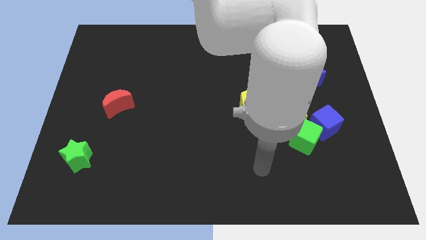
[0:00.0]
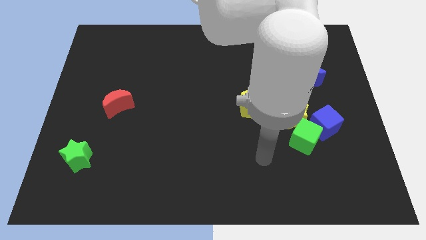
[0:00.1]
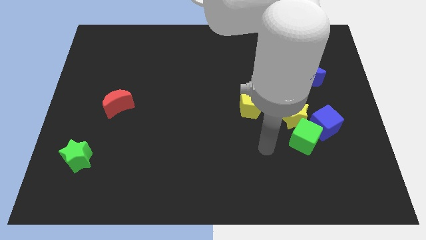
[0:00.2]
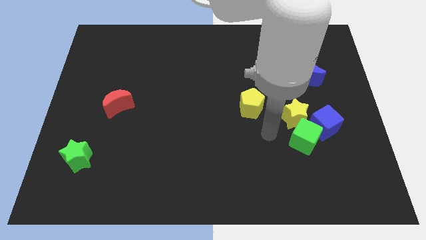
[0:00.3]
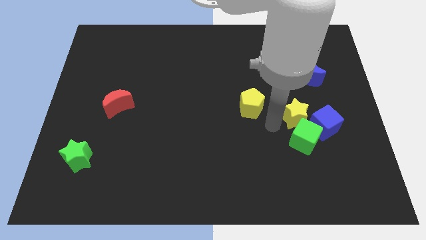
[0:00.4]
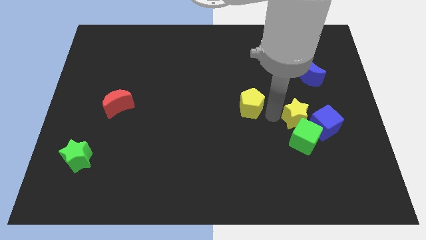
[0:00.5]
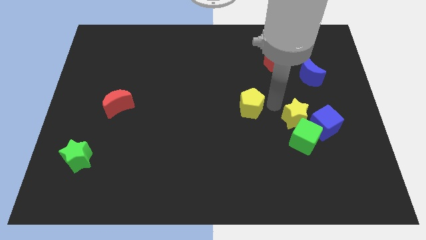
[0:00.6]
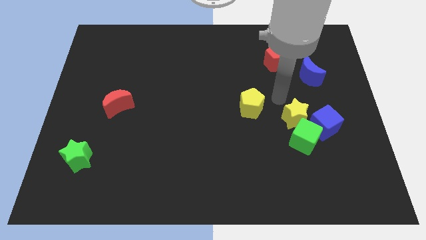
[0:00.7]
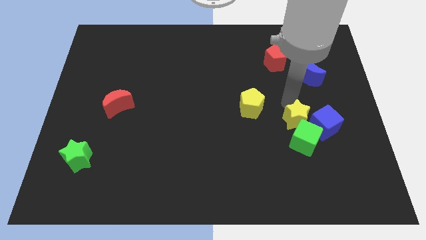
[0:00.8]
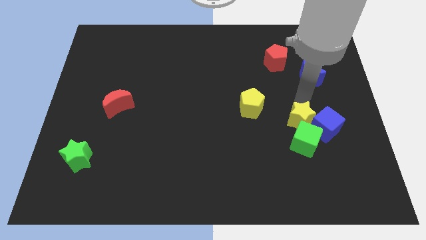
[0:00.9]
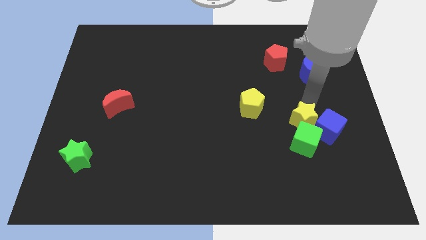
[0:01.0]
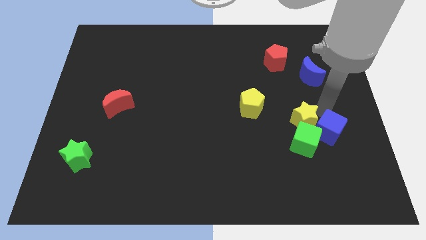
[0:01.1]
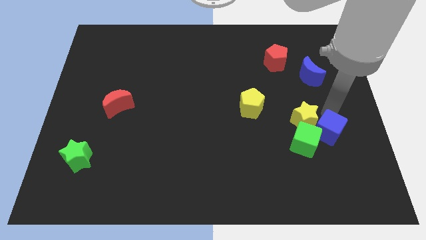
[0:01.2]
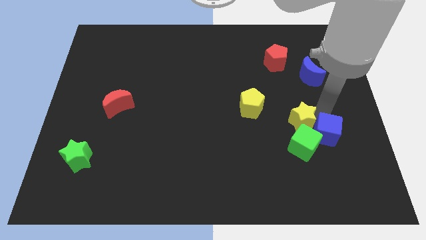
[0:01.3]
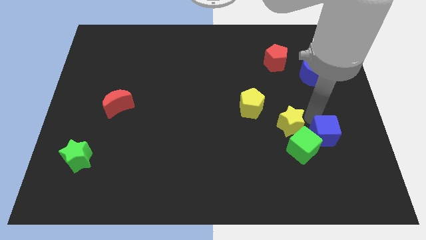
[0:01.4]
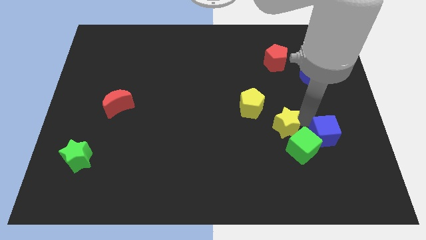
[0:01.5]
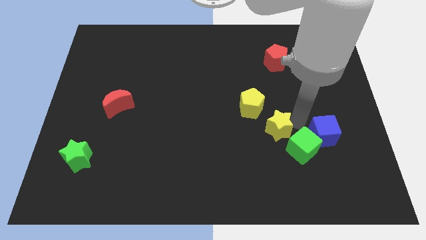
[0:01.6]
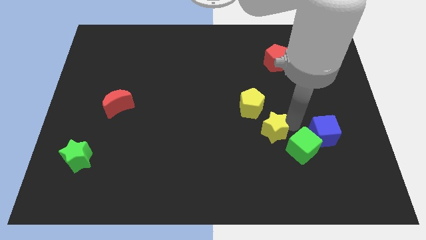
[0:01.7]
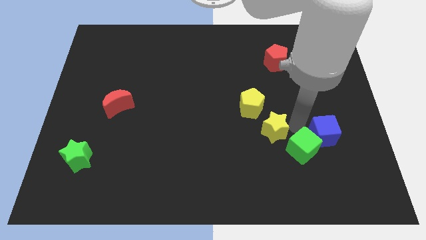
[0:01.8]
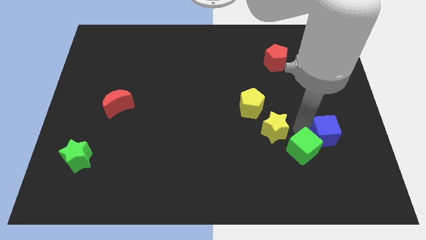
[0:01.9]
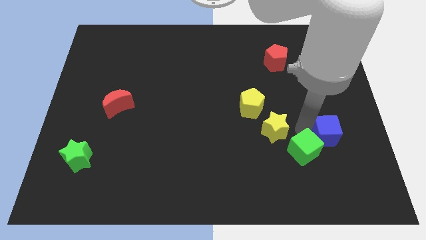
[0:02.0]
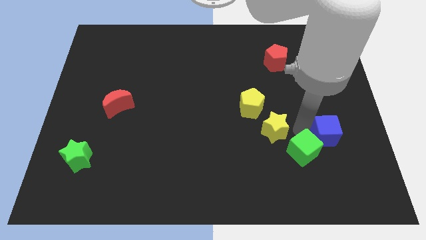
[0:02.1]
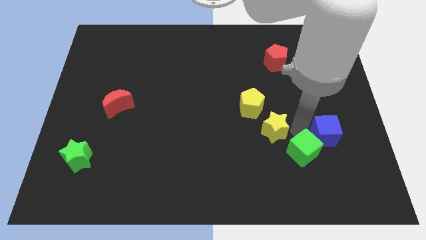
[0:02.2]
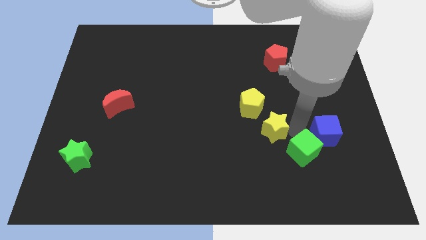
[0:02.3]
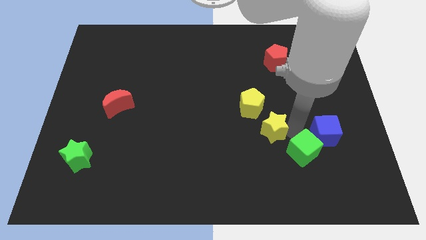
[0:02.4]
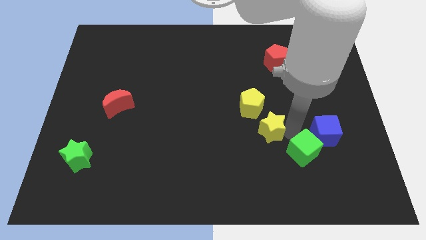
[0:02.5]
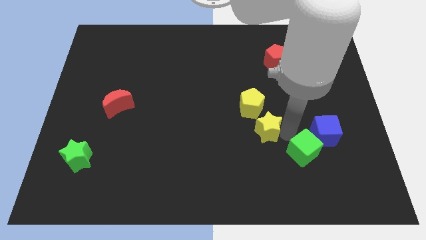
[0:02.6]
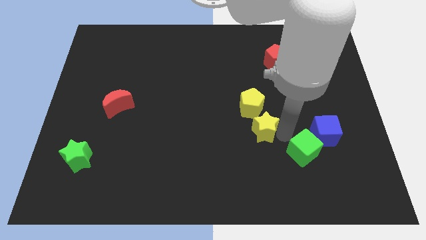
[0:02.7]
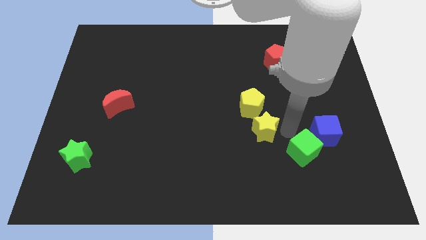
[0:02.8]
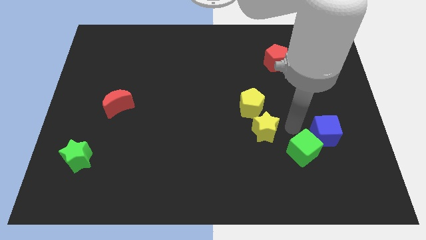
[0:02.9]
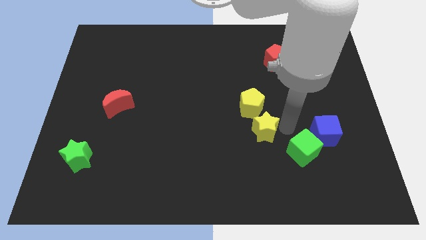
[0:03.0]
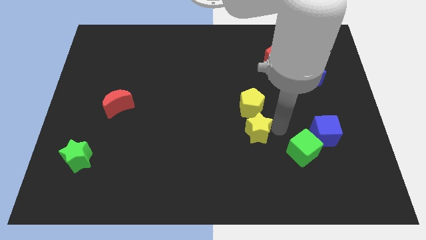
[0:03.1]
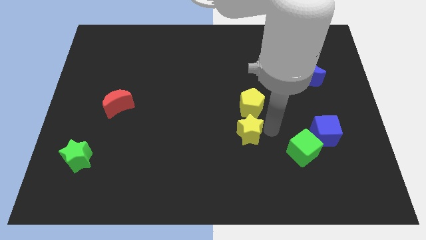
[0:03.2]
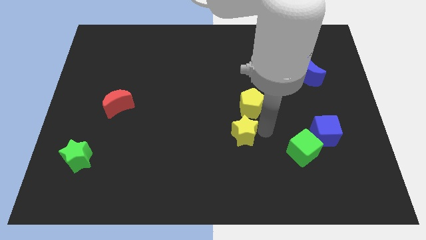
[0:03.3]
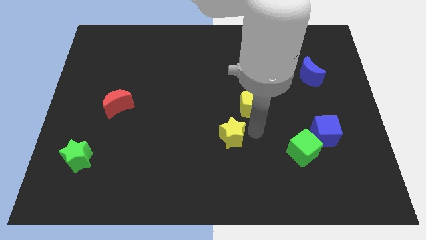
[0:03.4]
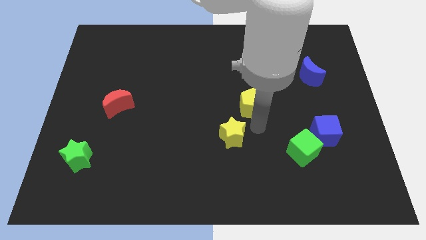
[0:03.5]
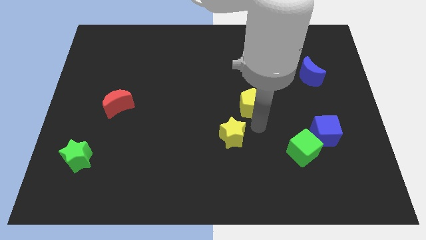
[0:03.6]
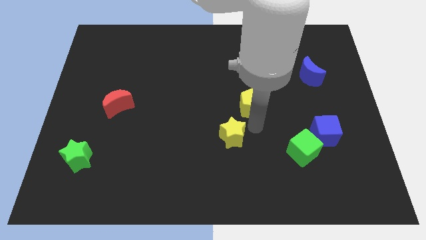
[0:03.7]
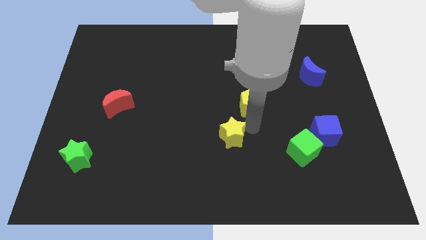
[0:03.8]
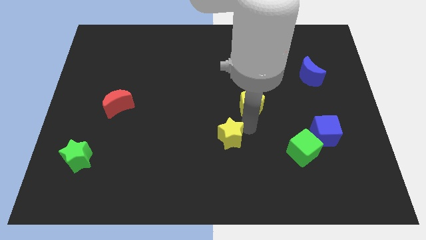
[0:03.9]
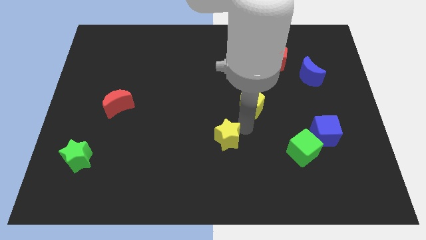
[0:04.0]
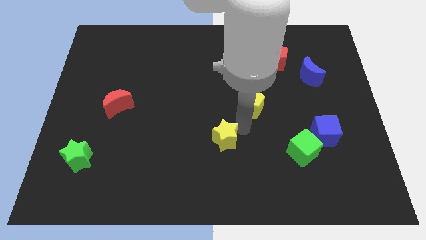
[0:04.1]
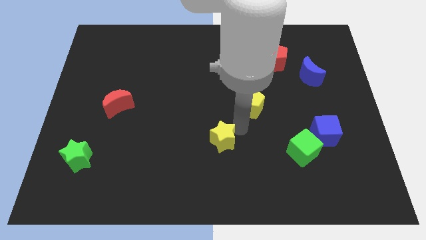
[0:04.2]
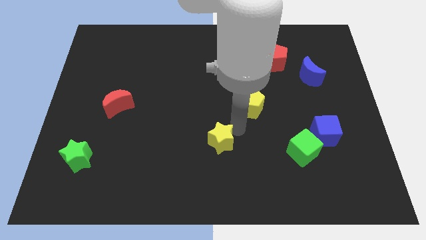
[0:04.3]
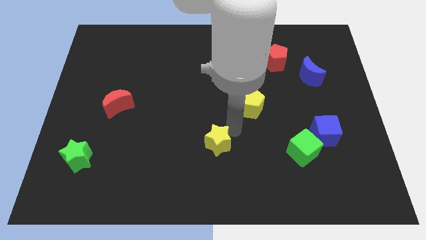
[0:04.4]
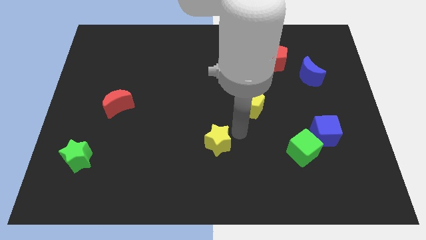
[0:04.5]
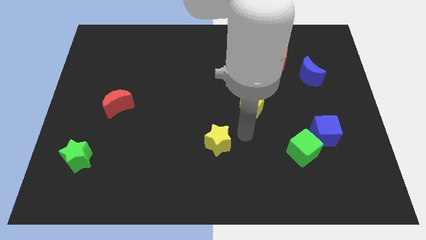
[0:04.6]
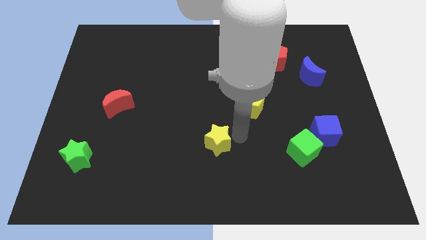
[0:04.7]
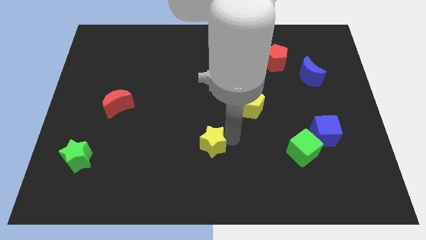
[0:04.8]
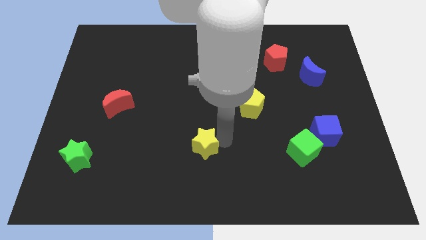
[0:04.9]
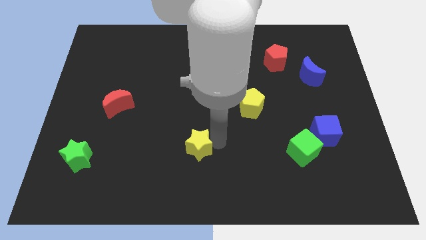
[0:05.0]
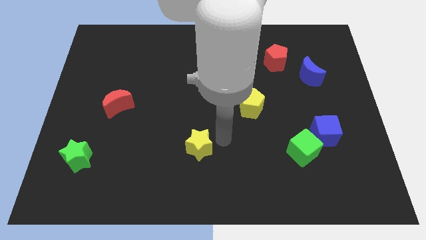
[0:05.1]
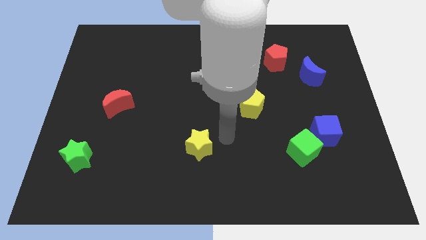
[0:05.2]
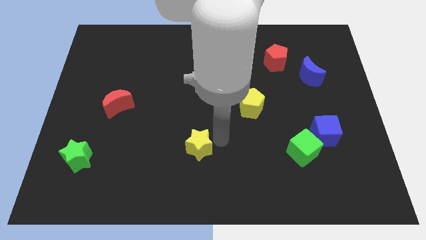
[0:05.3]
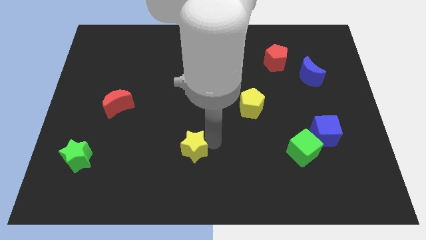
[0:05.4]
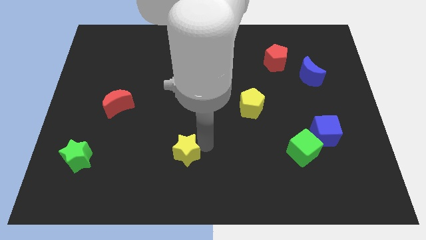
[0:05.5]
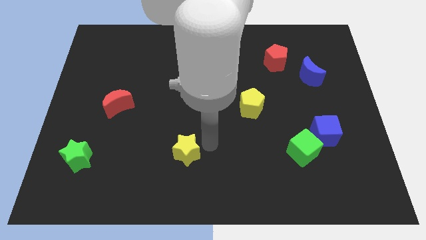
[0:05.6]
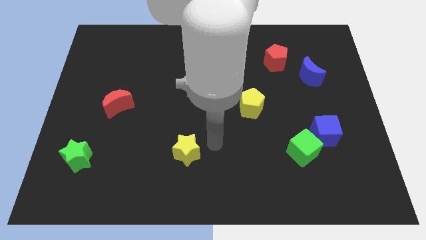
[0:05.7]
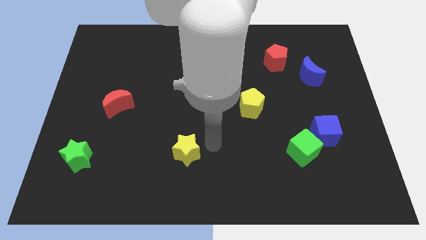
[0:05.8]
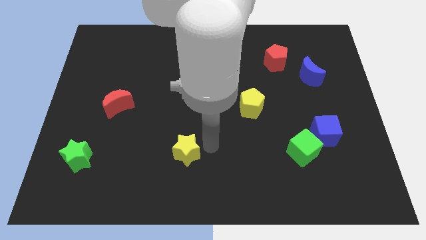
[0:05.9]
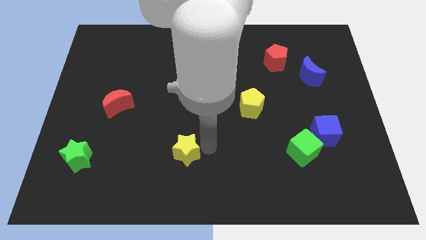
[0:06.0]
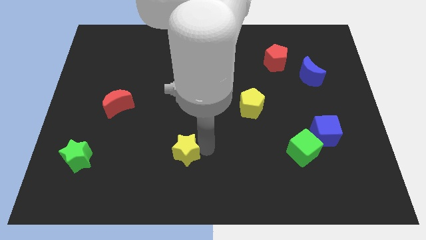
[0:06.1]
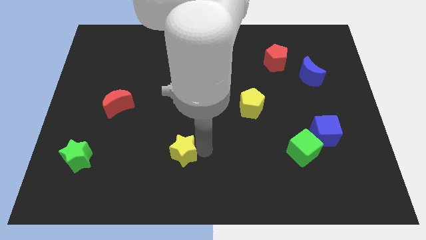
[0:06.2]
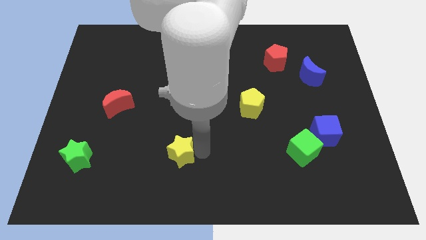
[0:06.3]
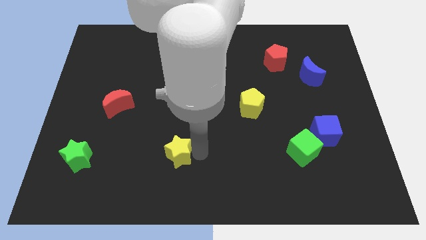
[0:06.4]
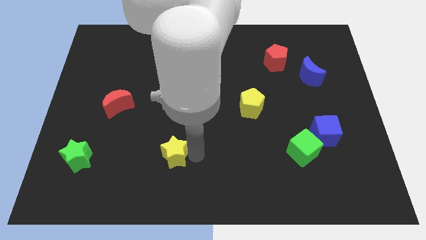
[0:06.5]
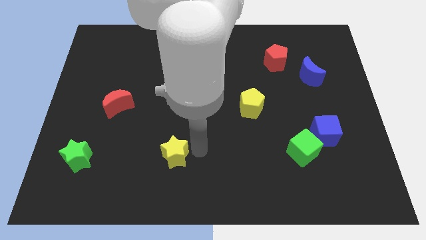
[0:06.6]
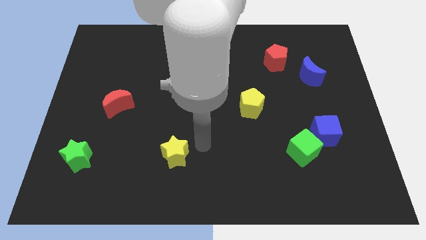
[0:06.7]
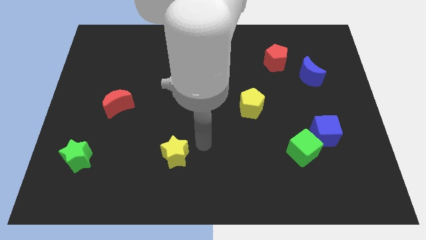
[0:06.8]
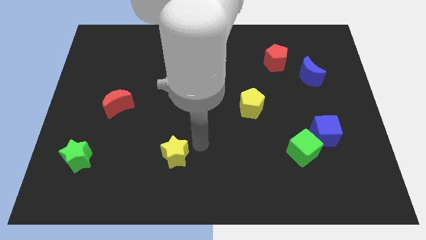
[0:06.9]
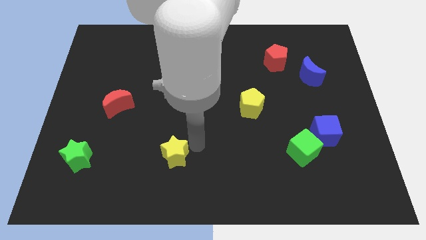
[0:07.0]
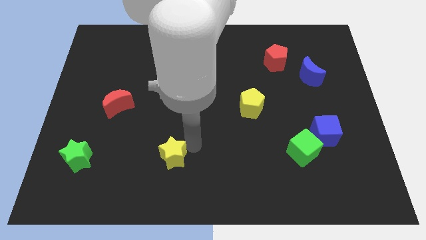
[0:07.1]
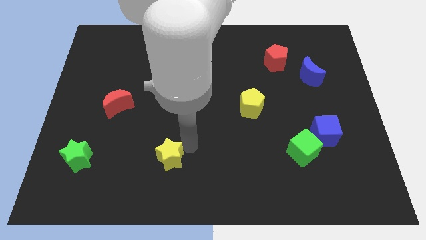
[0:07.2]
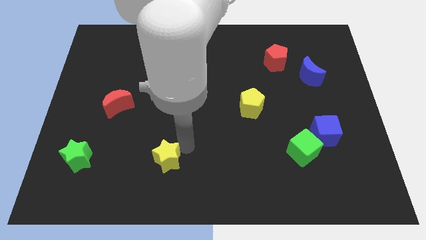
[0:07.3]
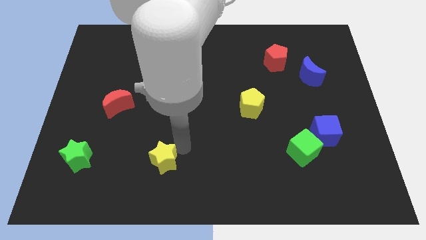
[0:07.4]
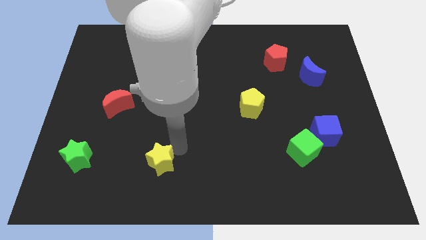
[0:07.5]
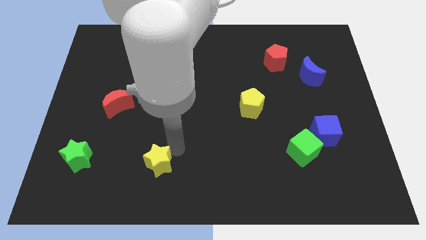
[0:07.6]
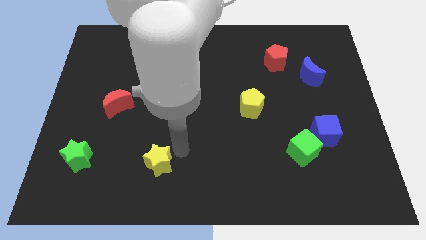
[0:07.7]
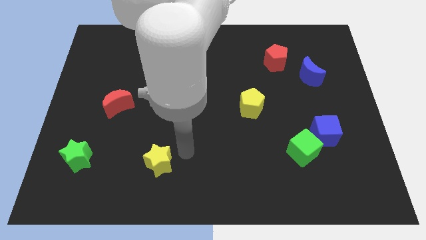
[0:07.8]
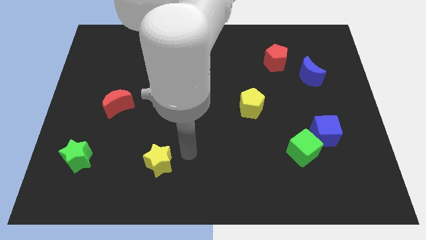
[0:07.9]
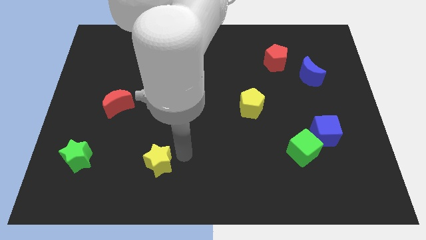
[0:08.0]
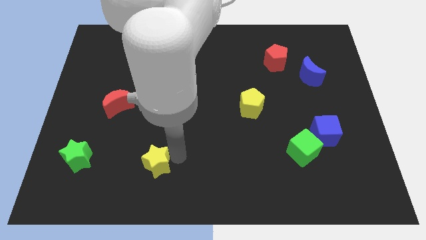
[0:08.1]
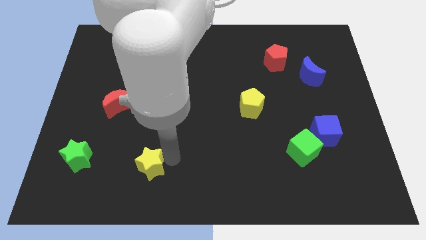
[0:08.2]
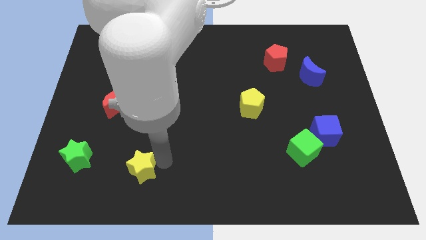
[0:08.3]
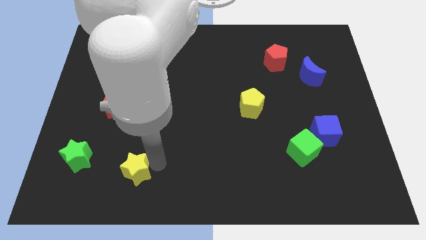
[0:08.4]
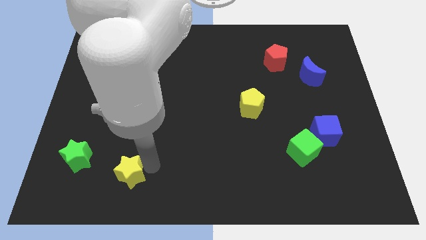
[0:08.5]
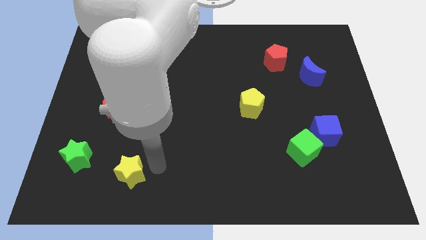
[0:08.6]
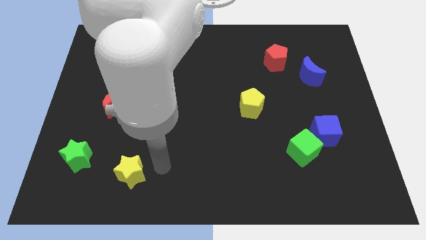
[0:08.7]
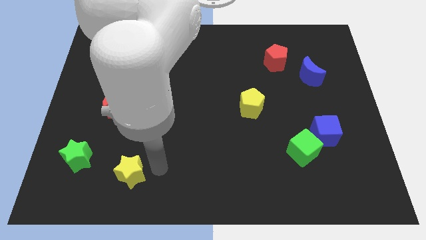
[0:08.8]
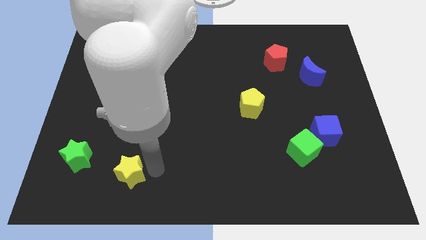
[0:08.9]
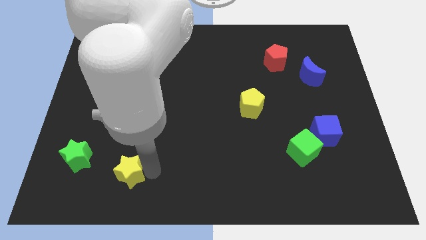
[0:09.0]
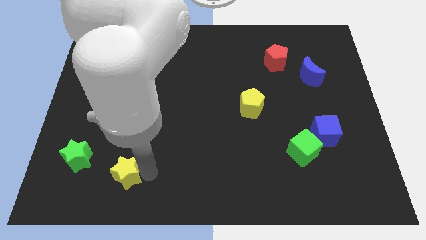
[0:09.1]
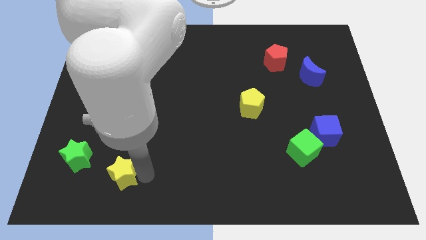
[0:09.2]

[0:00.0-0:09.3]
put the yellow star to the bottom right of the green star
